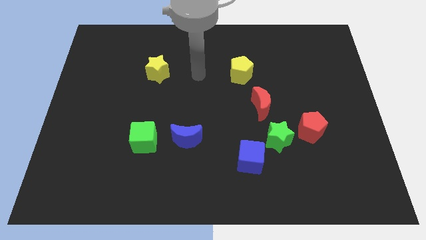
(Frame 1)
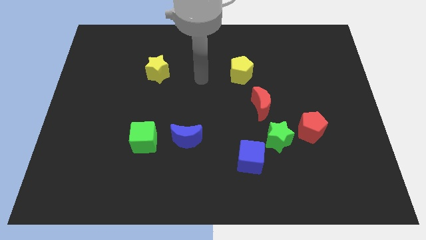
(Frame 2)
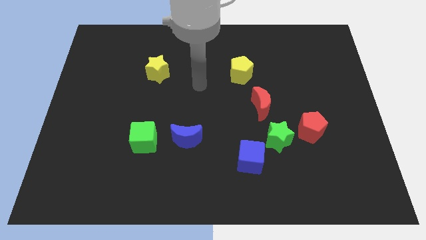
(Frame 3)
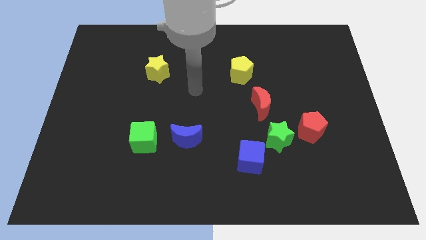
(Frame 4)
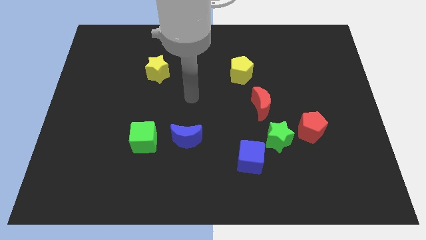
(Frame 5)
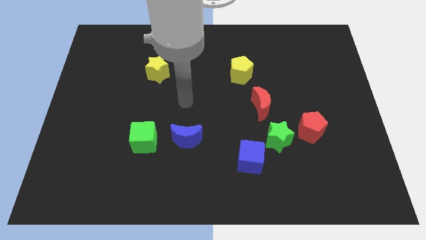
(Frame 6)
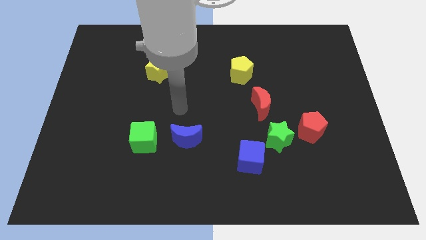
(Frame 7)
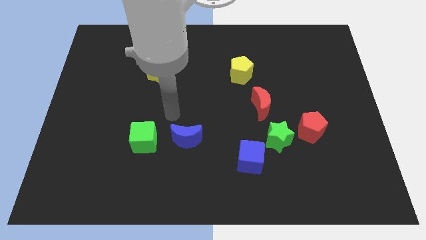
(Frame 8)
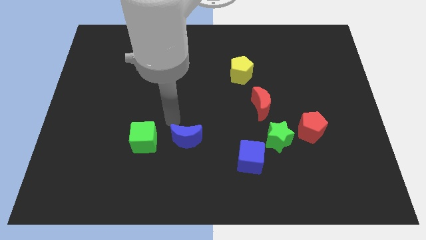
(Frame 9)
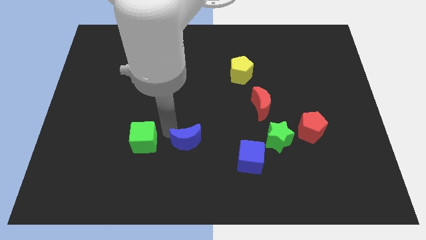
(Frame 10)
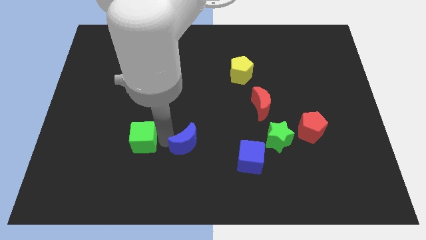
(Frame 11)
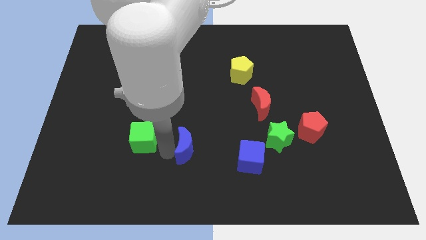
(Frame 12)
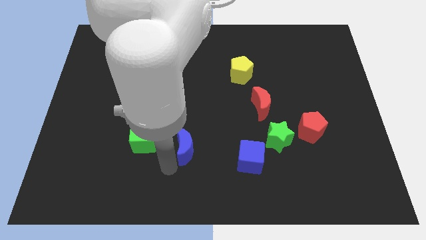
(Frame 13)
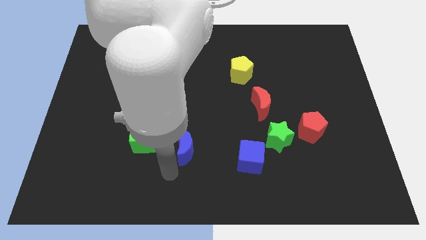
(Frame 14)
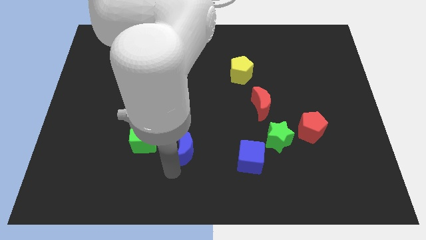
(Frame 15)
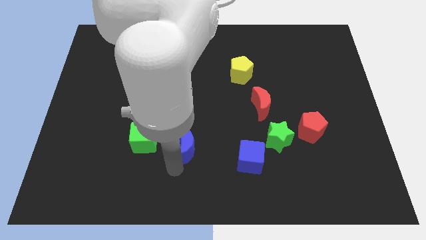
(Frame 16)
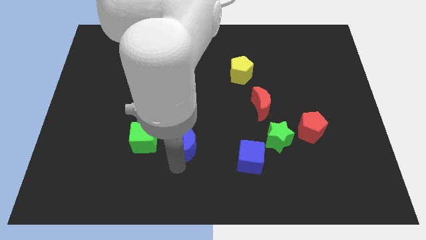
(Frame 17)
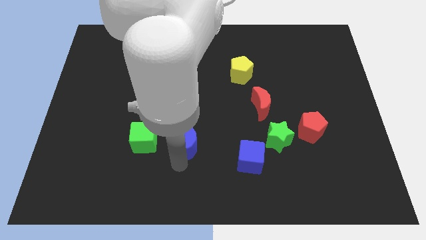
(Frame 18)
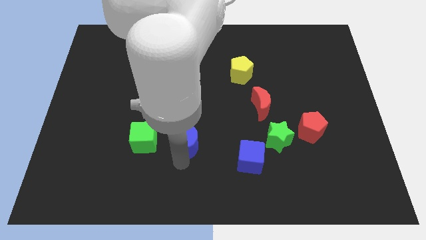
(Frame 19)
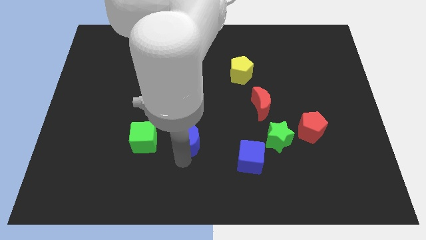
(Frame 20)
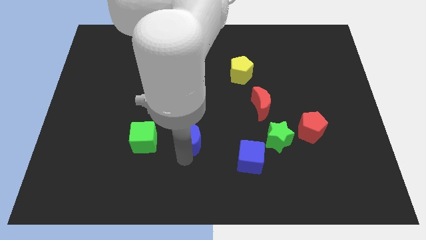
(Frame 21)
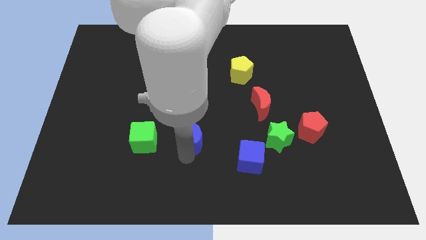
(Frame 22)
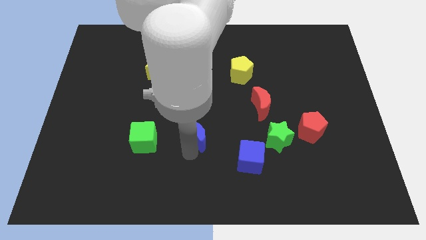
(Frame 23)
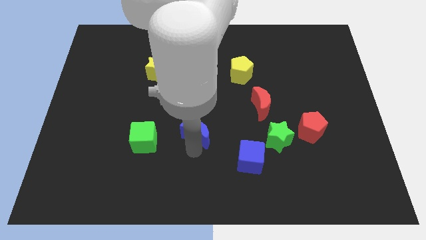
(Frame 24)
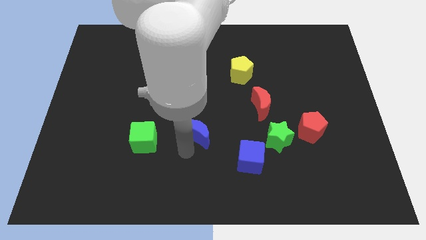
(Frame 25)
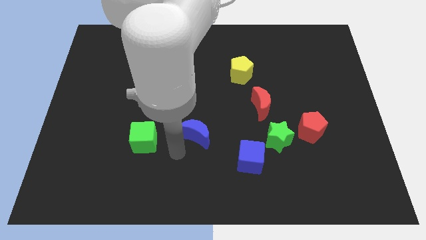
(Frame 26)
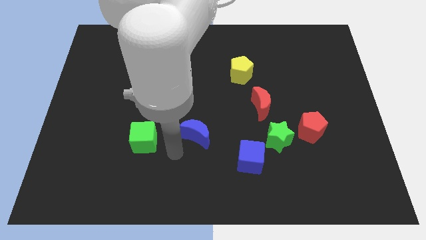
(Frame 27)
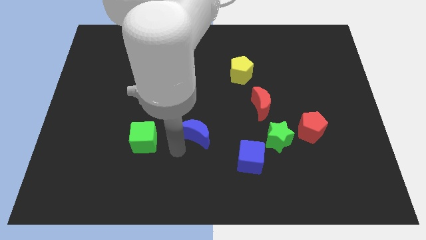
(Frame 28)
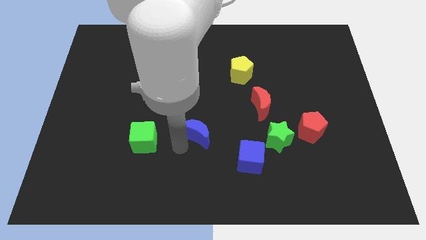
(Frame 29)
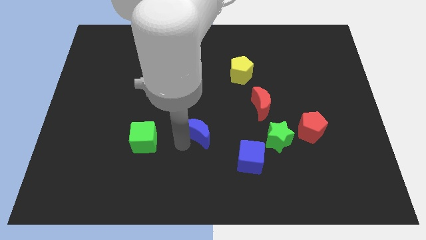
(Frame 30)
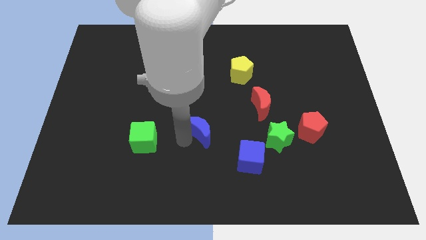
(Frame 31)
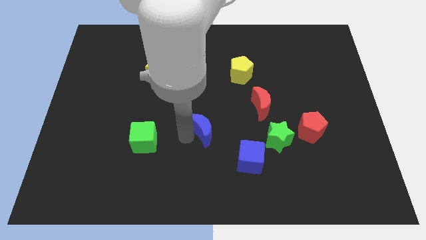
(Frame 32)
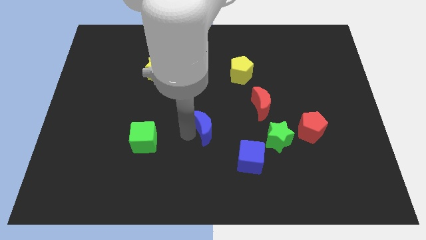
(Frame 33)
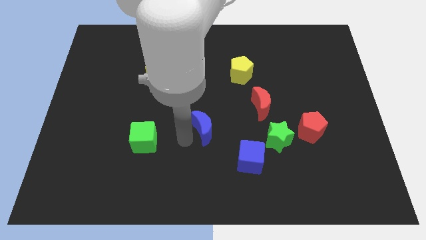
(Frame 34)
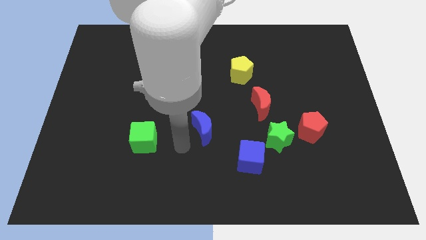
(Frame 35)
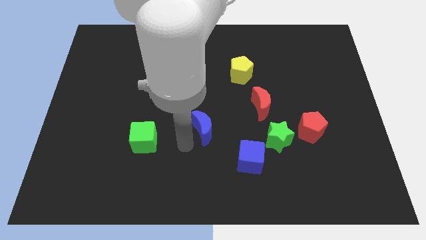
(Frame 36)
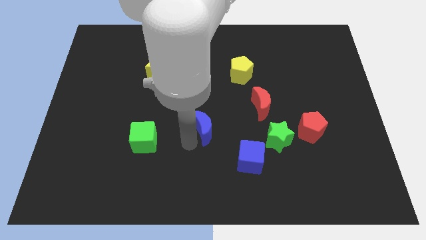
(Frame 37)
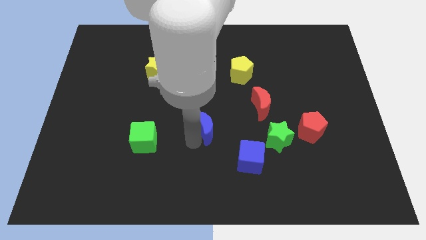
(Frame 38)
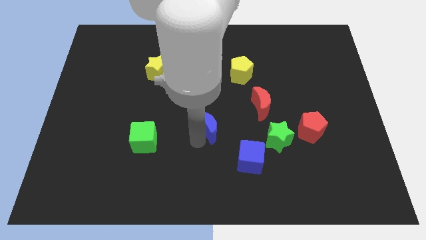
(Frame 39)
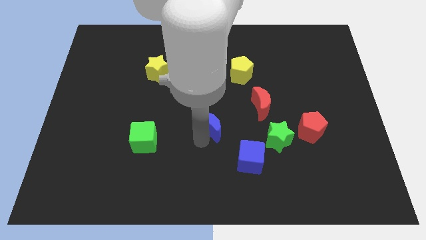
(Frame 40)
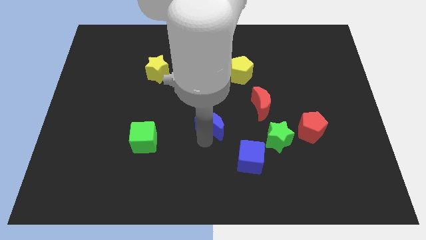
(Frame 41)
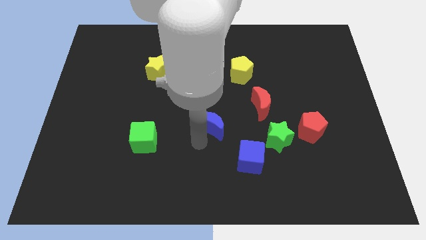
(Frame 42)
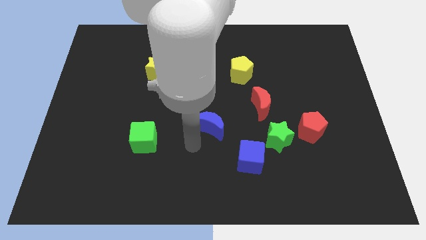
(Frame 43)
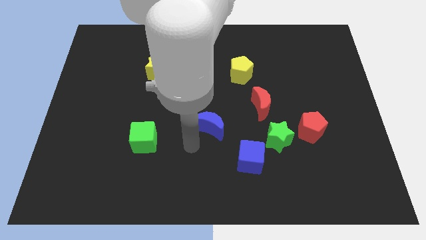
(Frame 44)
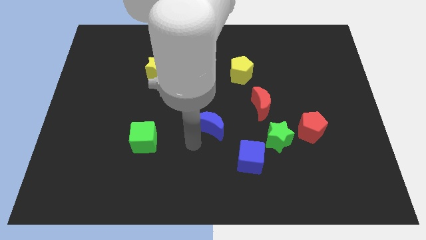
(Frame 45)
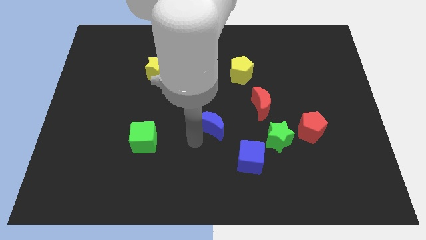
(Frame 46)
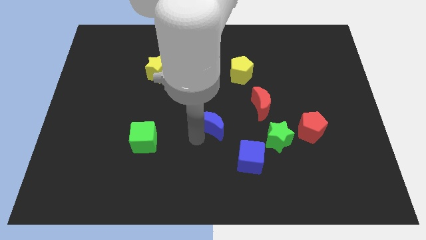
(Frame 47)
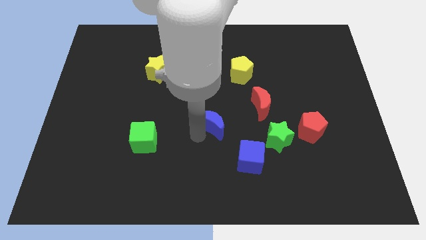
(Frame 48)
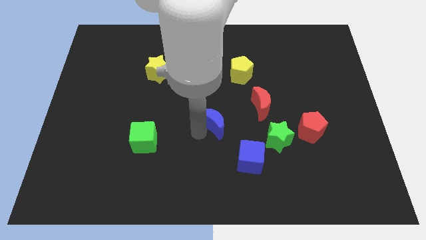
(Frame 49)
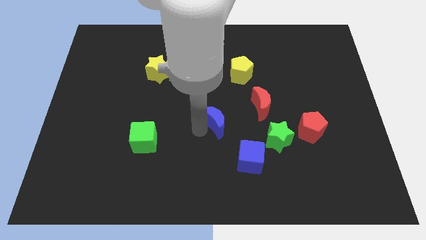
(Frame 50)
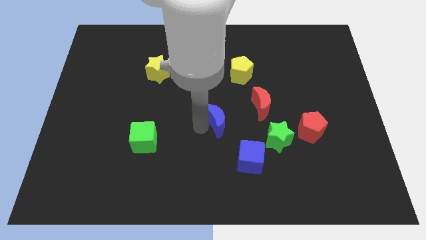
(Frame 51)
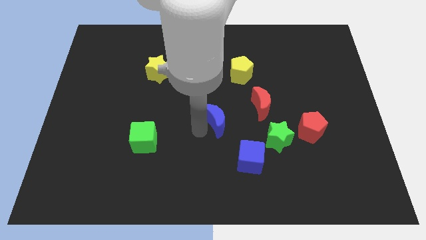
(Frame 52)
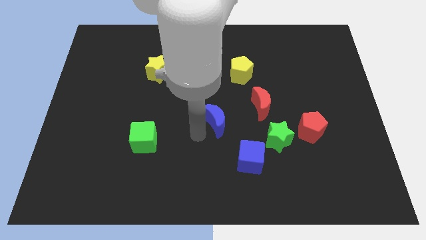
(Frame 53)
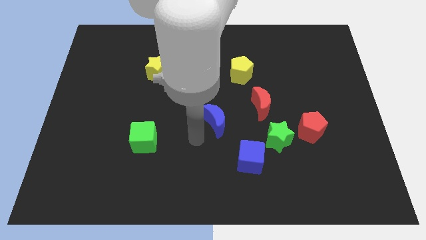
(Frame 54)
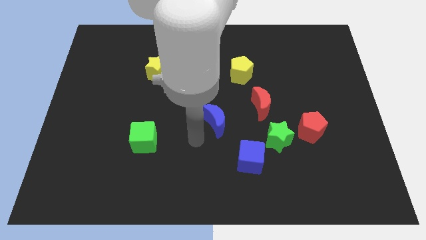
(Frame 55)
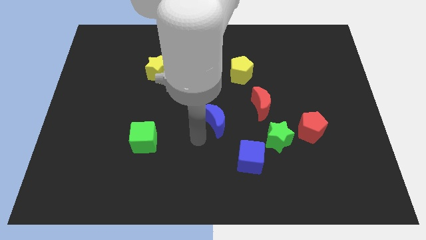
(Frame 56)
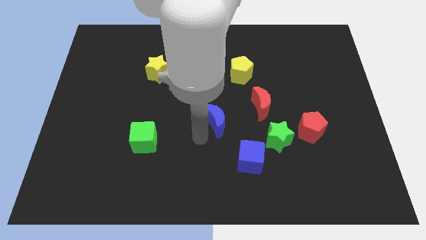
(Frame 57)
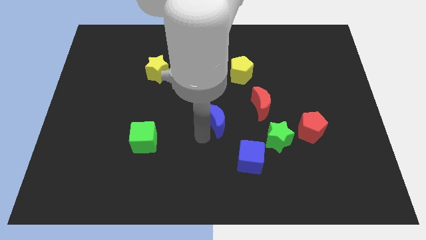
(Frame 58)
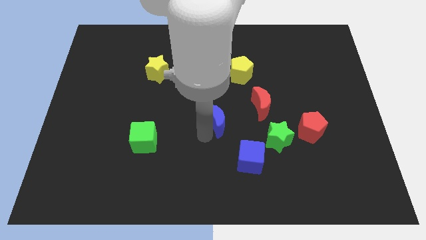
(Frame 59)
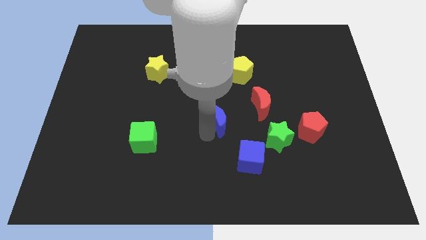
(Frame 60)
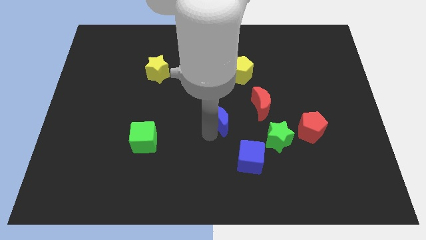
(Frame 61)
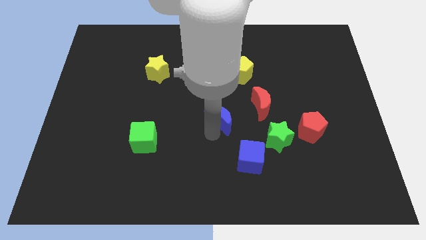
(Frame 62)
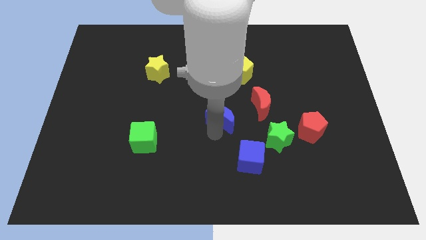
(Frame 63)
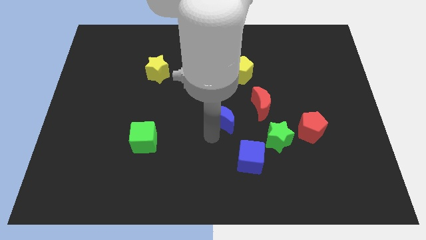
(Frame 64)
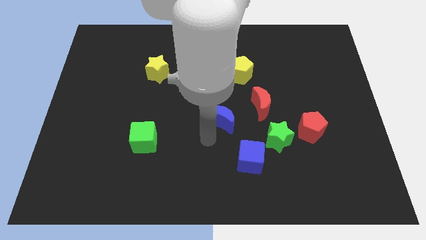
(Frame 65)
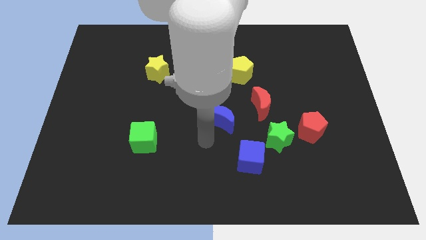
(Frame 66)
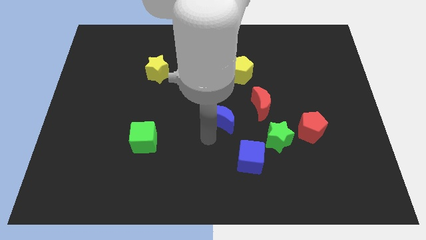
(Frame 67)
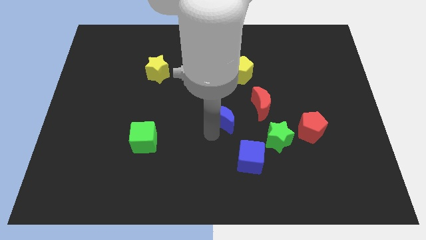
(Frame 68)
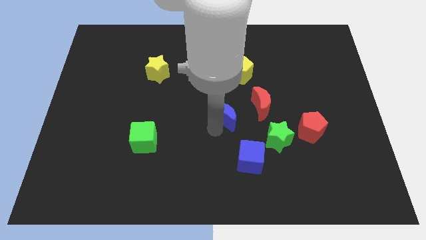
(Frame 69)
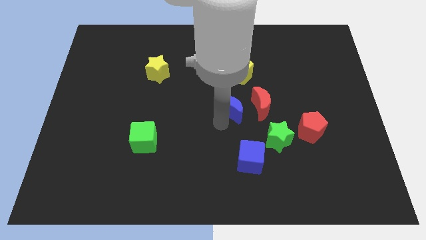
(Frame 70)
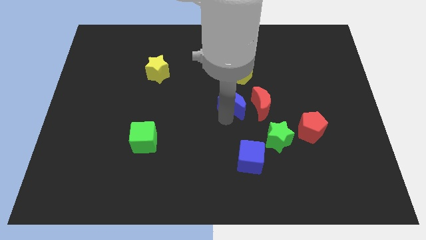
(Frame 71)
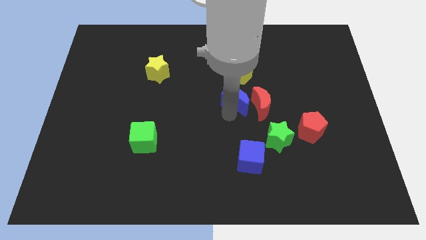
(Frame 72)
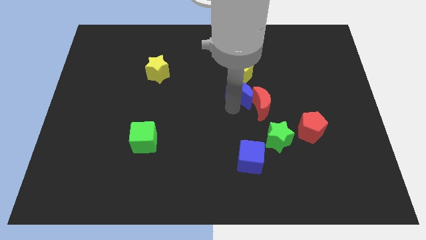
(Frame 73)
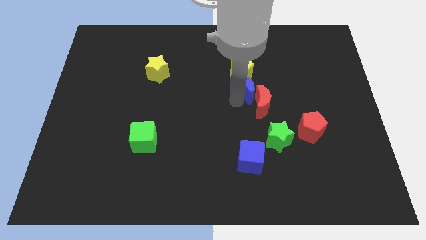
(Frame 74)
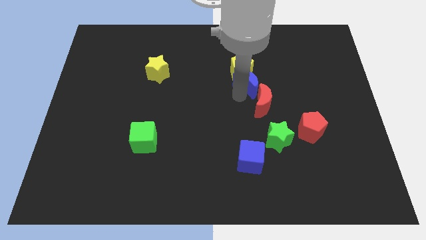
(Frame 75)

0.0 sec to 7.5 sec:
push the blue moon diagonally upwards and right

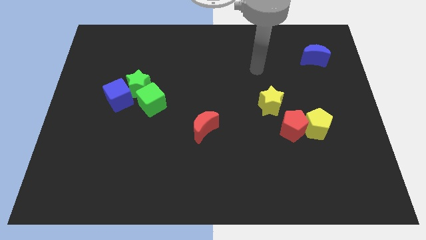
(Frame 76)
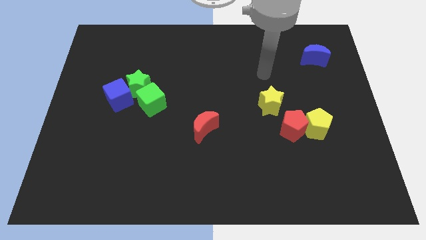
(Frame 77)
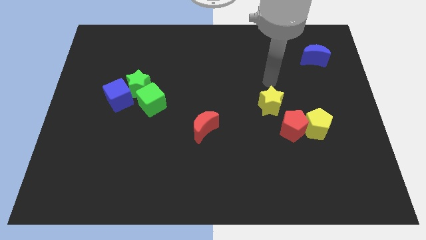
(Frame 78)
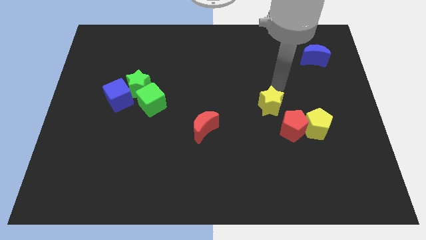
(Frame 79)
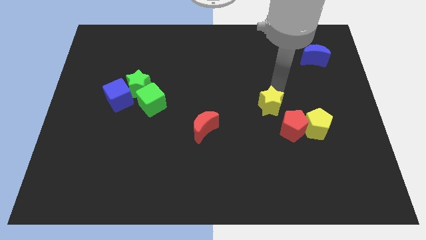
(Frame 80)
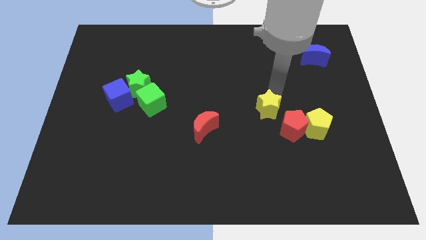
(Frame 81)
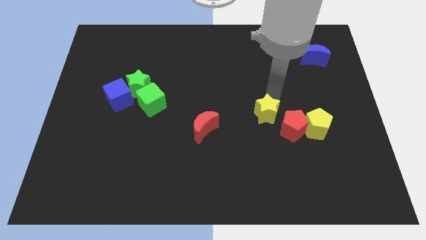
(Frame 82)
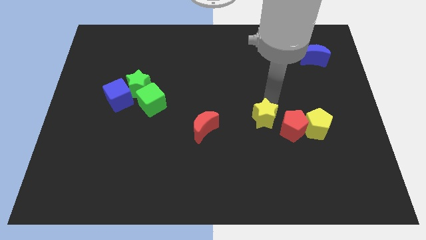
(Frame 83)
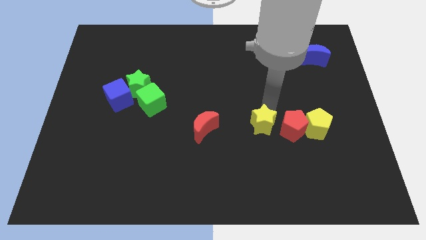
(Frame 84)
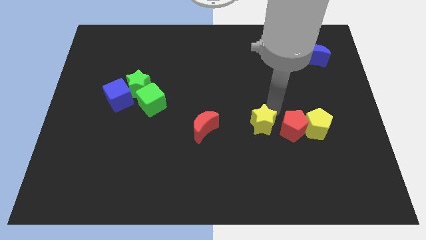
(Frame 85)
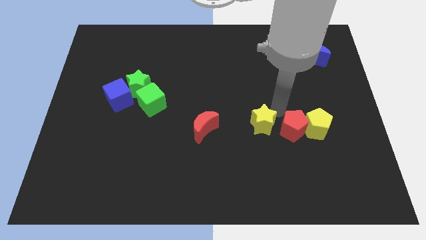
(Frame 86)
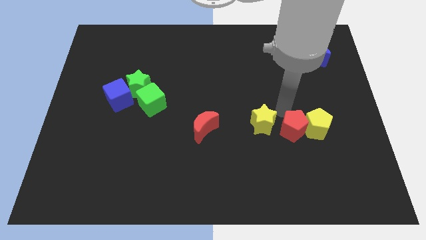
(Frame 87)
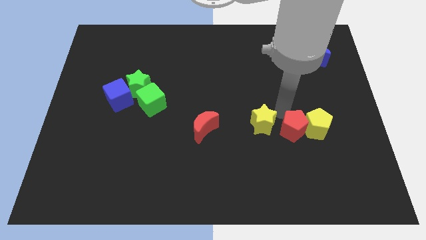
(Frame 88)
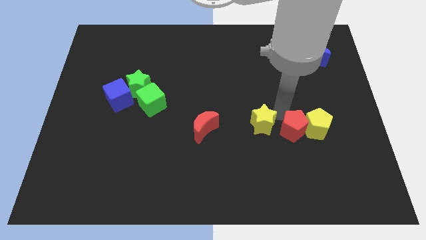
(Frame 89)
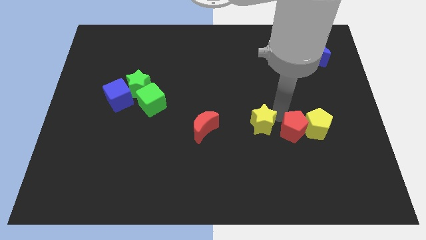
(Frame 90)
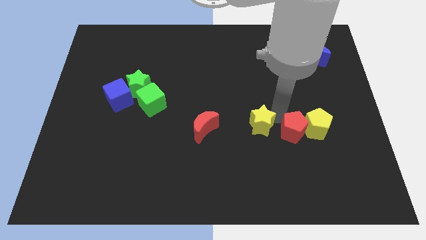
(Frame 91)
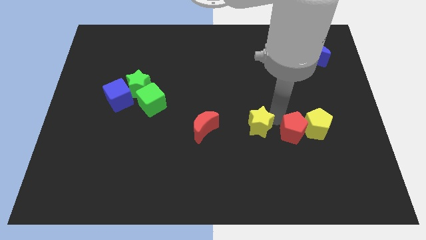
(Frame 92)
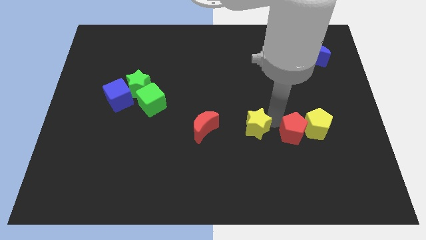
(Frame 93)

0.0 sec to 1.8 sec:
slide the yellow star downwards and left diagonally a little bit
